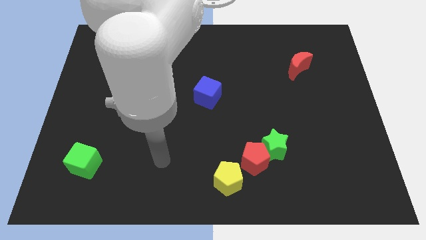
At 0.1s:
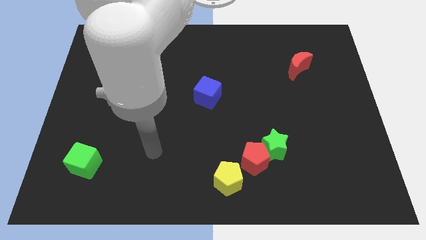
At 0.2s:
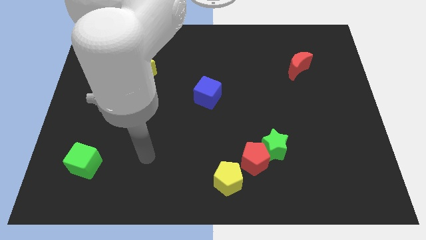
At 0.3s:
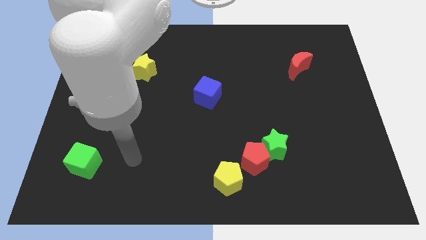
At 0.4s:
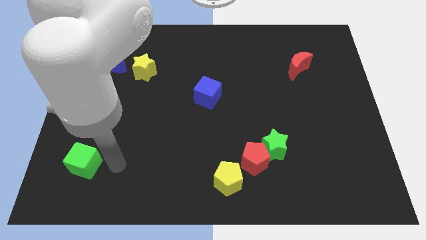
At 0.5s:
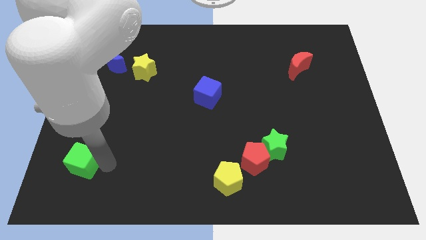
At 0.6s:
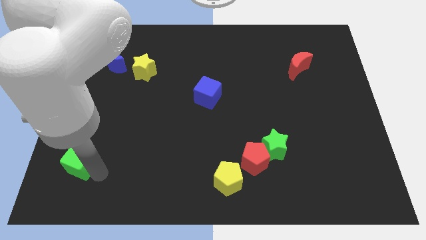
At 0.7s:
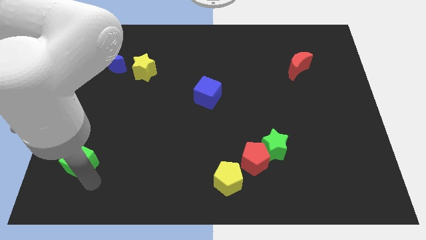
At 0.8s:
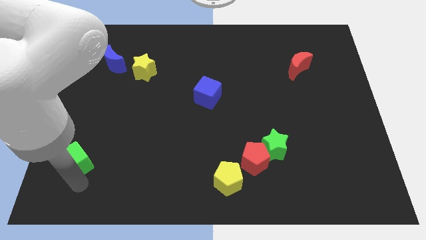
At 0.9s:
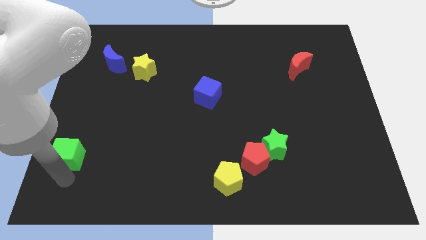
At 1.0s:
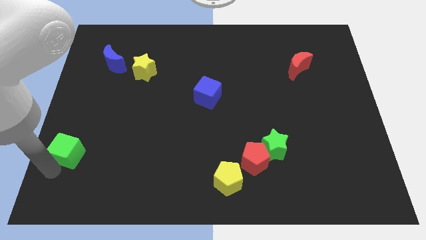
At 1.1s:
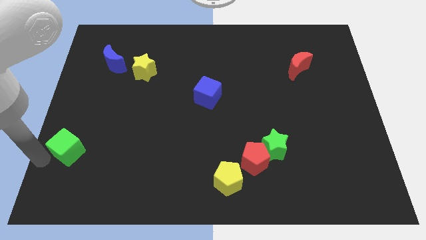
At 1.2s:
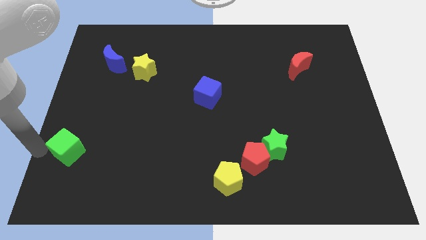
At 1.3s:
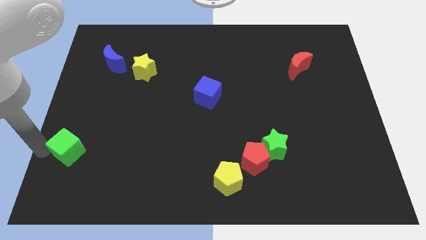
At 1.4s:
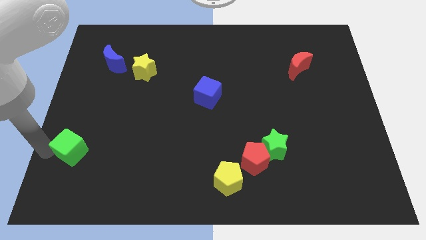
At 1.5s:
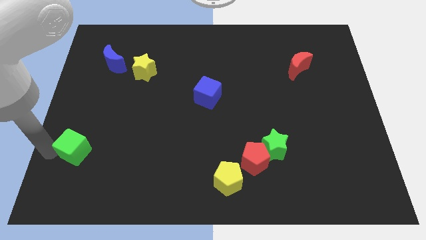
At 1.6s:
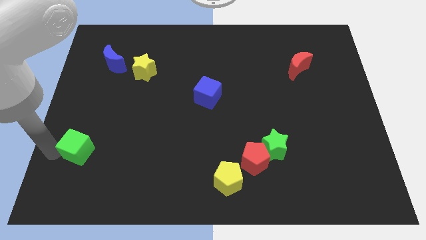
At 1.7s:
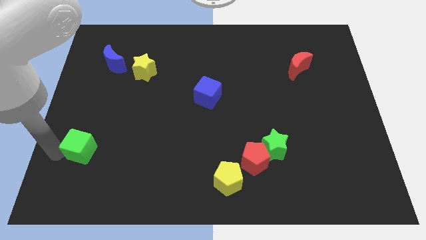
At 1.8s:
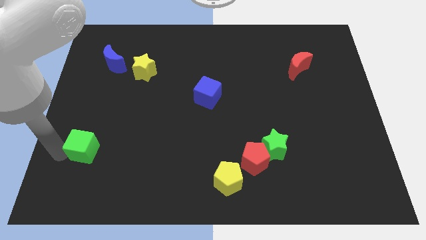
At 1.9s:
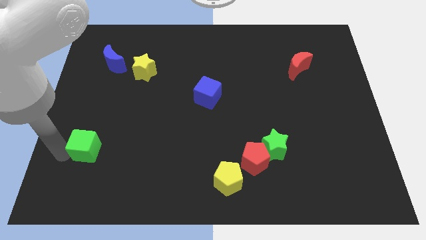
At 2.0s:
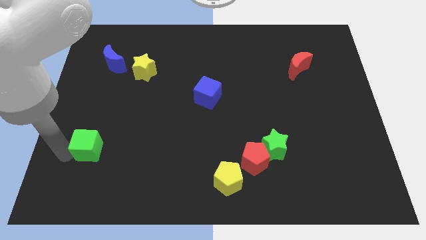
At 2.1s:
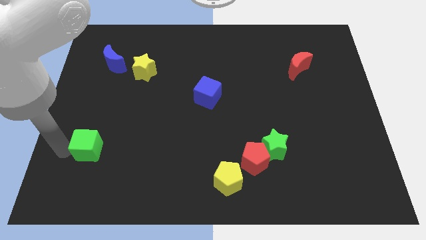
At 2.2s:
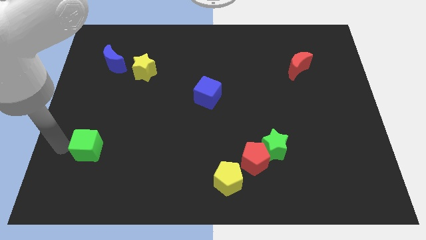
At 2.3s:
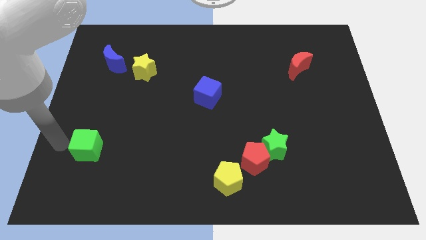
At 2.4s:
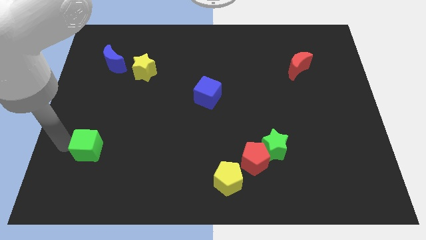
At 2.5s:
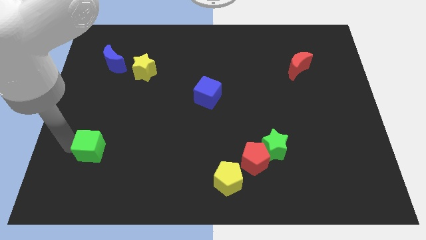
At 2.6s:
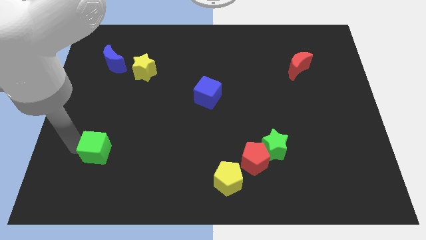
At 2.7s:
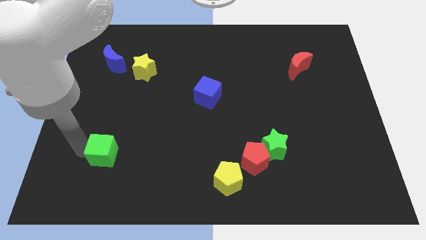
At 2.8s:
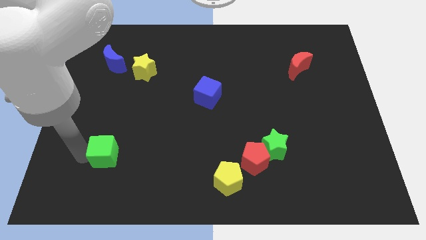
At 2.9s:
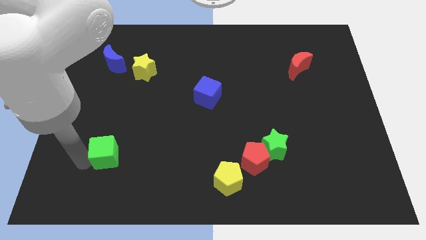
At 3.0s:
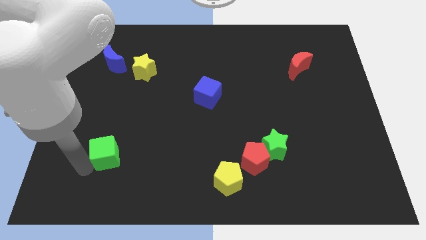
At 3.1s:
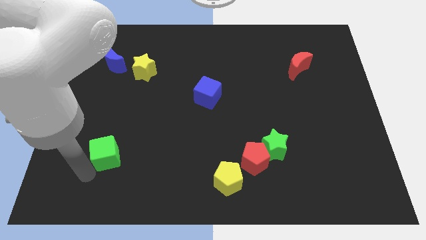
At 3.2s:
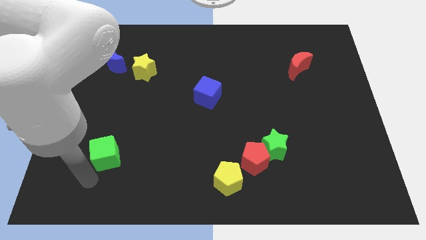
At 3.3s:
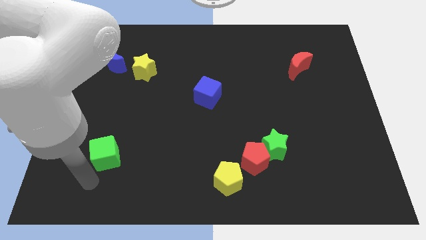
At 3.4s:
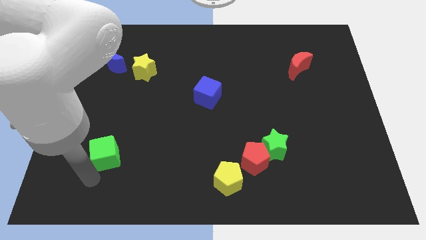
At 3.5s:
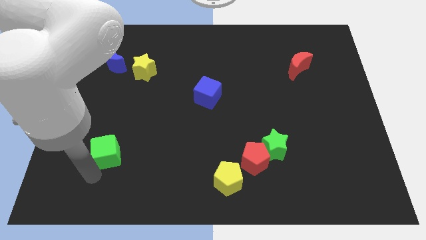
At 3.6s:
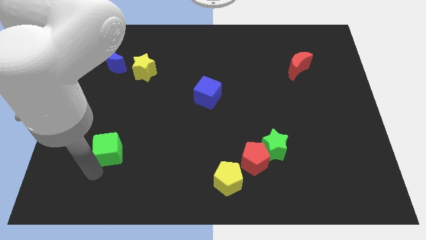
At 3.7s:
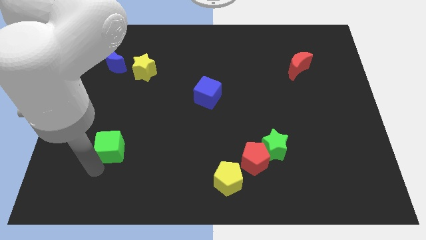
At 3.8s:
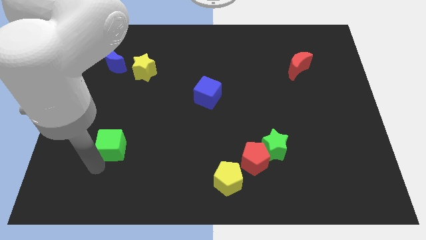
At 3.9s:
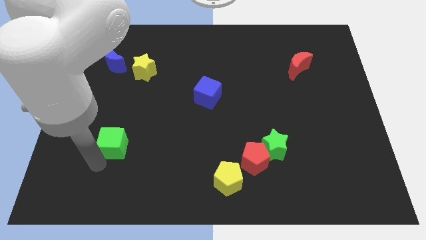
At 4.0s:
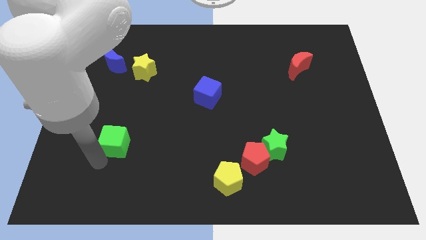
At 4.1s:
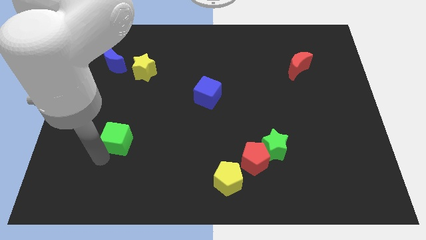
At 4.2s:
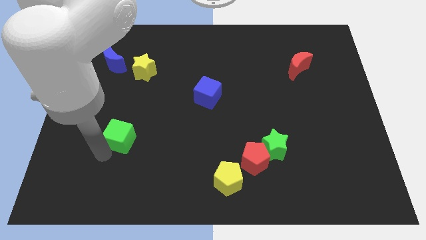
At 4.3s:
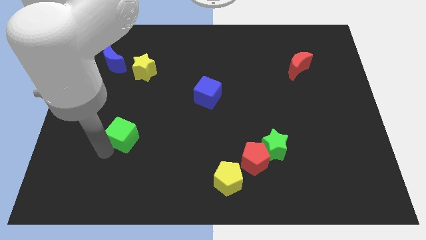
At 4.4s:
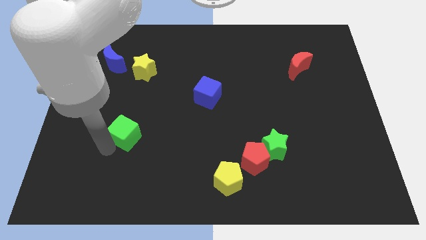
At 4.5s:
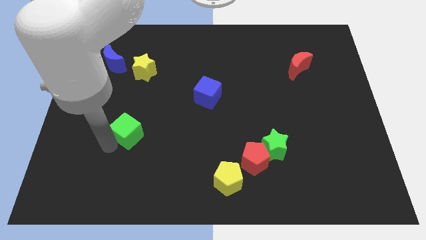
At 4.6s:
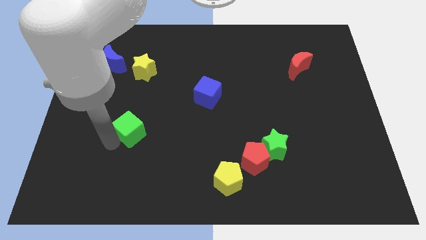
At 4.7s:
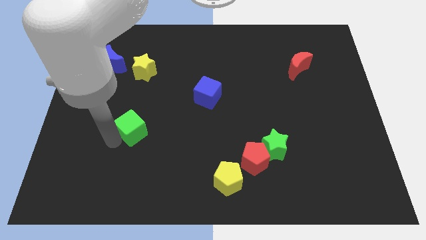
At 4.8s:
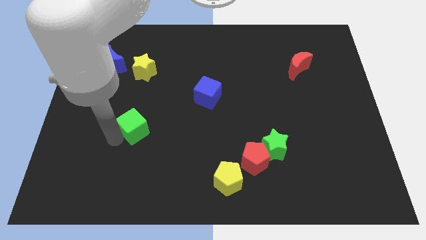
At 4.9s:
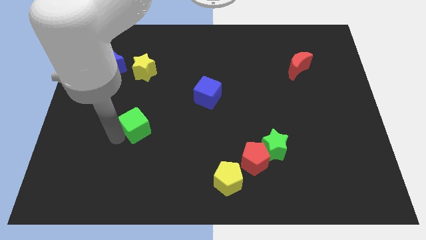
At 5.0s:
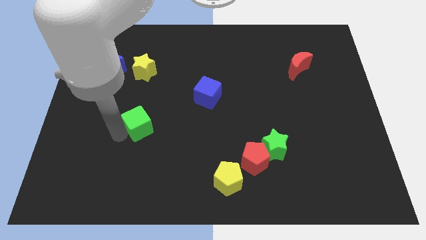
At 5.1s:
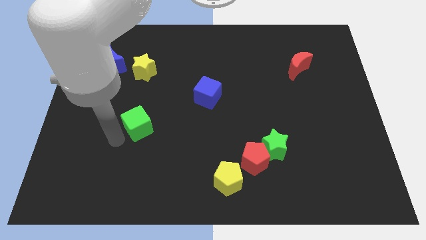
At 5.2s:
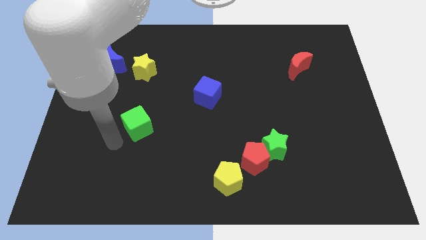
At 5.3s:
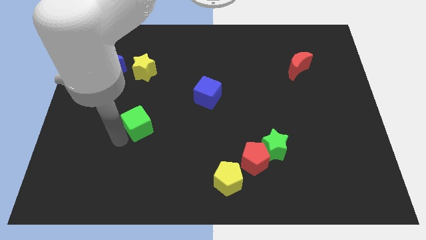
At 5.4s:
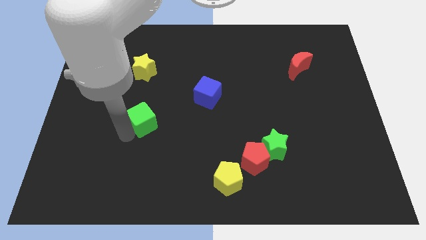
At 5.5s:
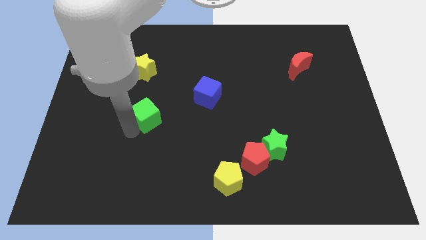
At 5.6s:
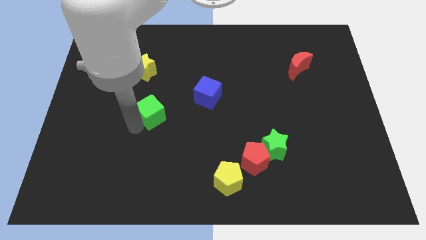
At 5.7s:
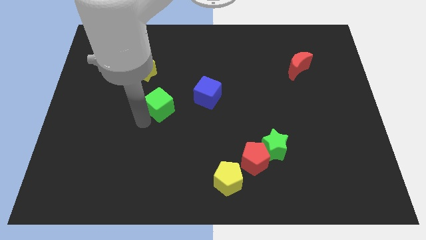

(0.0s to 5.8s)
push the green cube upwards and right diagonally

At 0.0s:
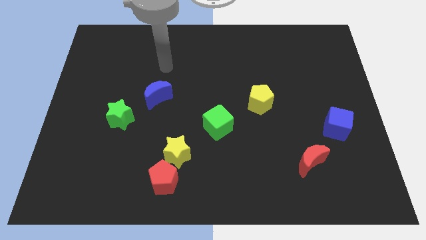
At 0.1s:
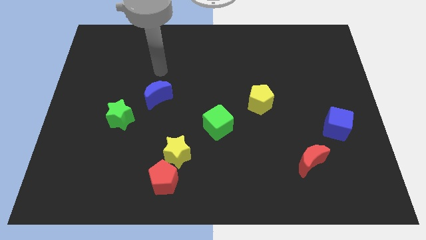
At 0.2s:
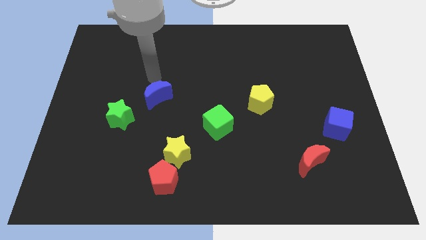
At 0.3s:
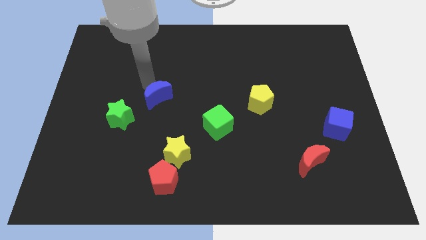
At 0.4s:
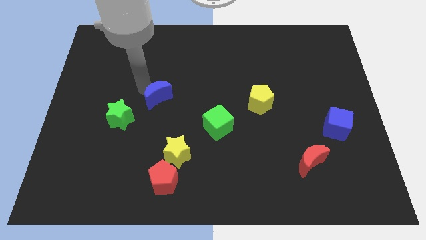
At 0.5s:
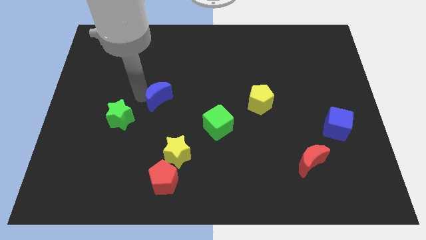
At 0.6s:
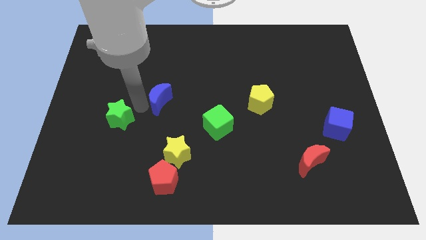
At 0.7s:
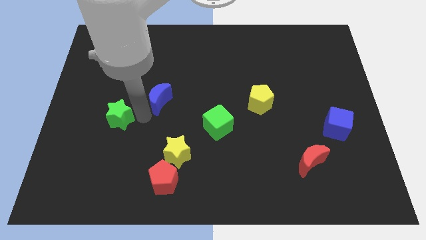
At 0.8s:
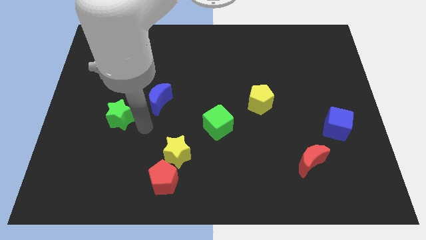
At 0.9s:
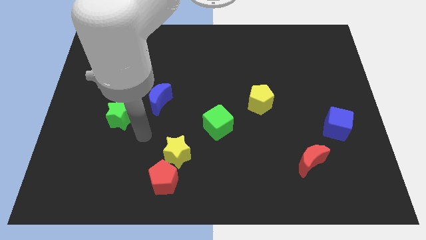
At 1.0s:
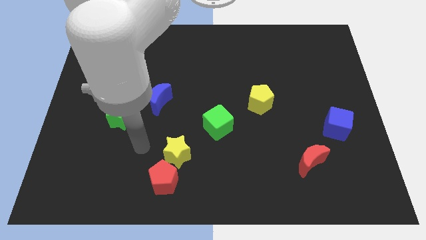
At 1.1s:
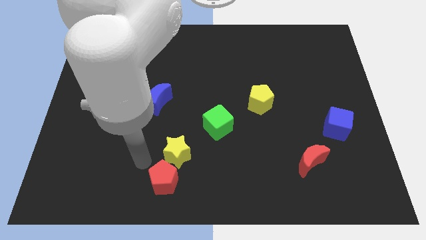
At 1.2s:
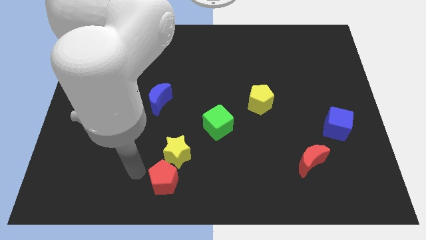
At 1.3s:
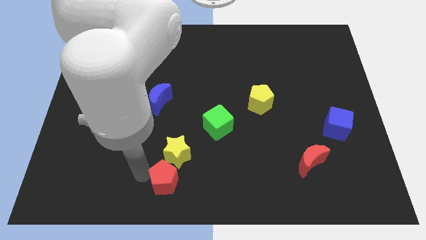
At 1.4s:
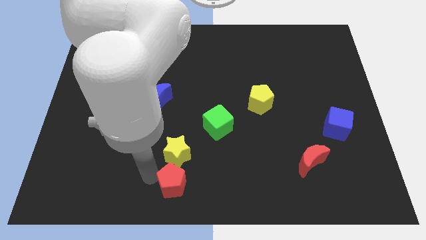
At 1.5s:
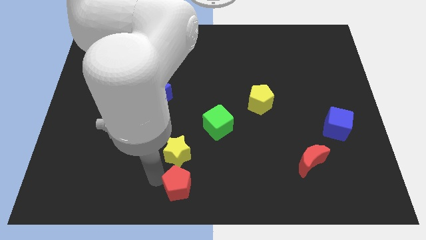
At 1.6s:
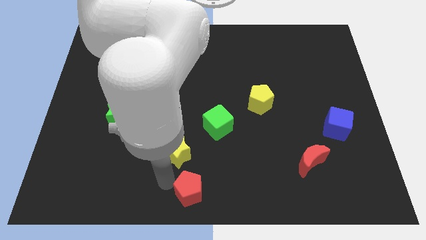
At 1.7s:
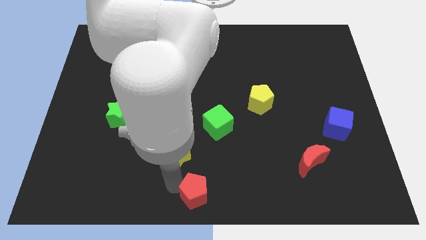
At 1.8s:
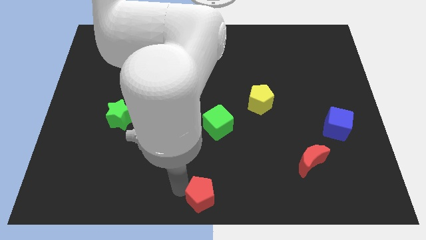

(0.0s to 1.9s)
push the red pentagon slightly right
